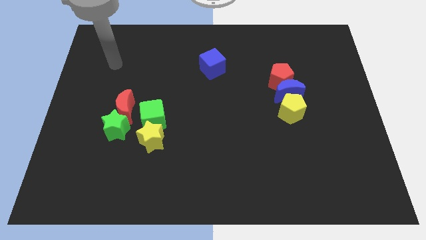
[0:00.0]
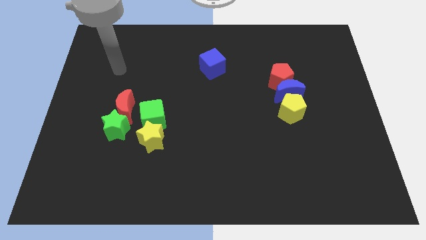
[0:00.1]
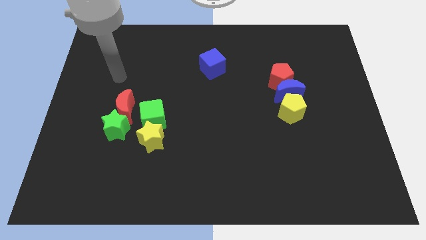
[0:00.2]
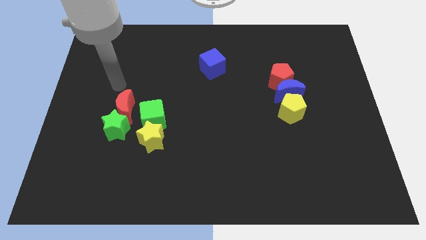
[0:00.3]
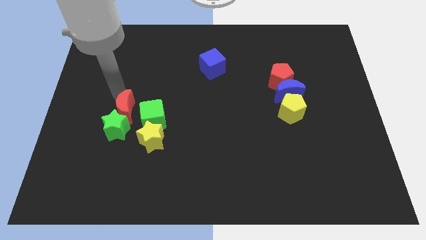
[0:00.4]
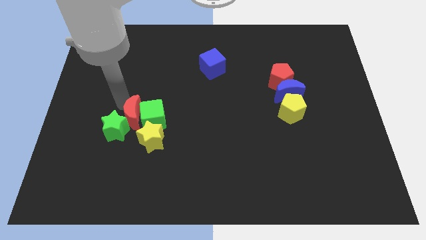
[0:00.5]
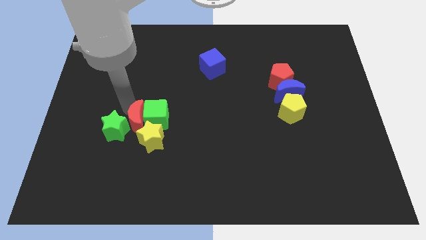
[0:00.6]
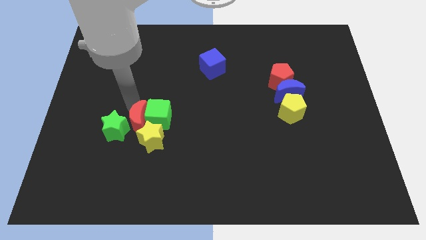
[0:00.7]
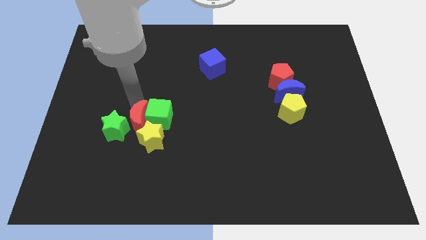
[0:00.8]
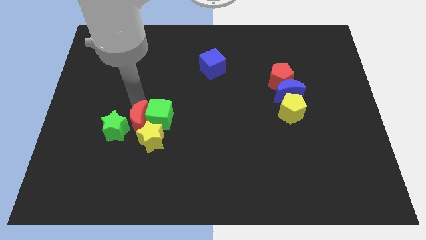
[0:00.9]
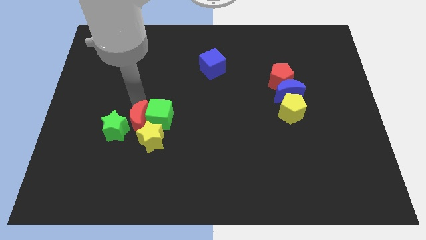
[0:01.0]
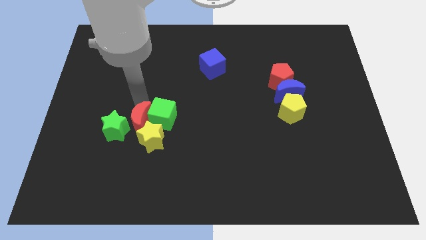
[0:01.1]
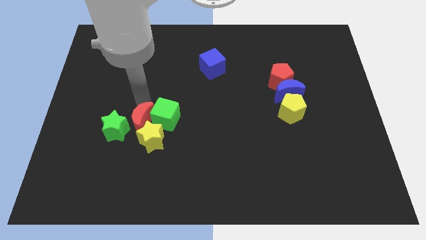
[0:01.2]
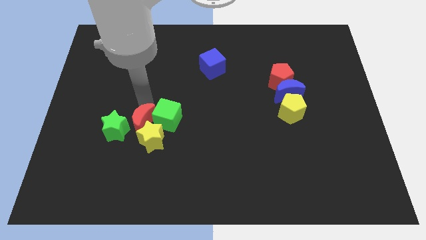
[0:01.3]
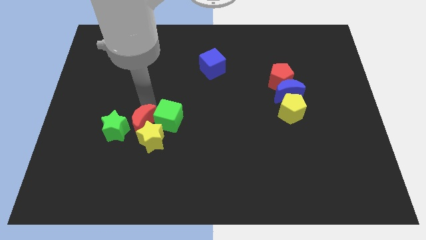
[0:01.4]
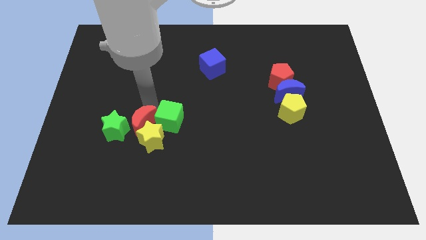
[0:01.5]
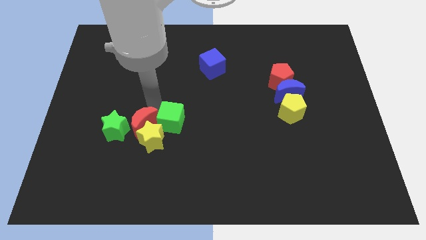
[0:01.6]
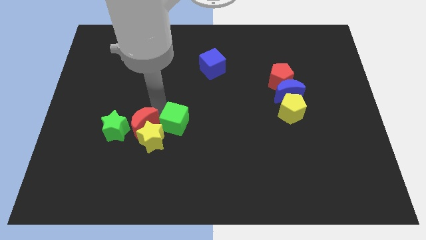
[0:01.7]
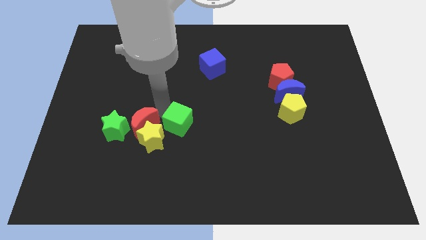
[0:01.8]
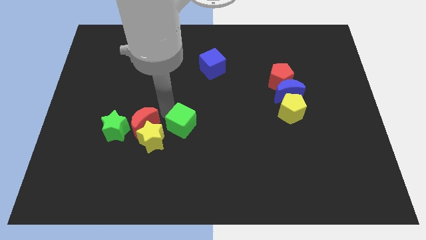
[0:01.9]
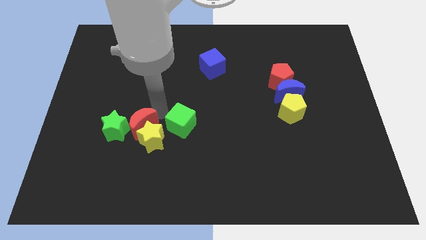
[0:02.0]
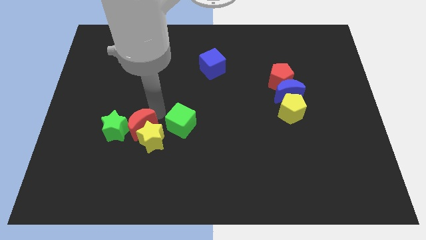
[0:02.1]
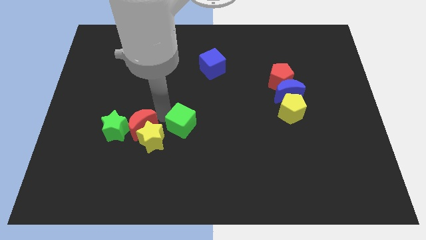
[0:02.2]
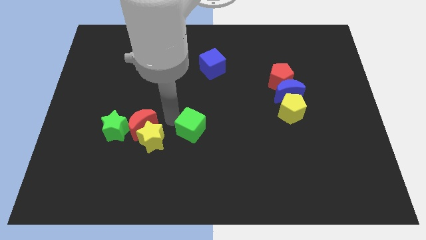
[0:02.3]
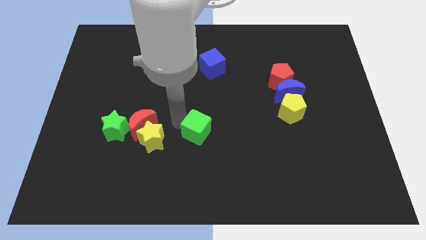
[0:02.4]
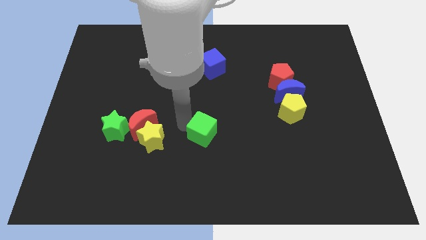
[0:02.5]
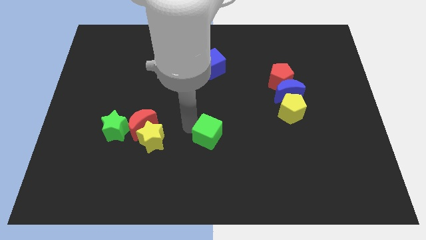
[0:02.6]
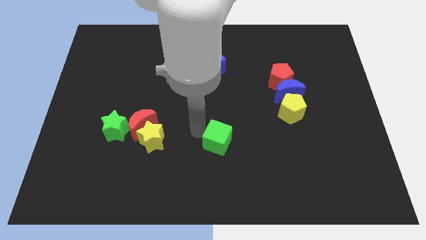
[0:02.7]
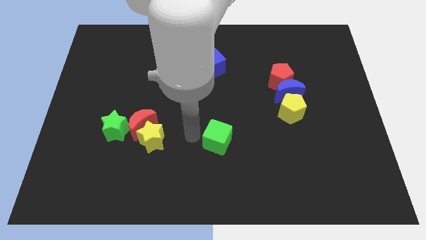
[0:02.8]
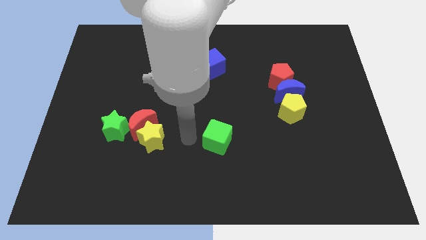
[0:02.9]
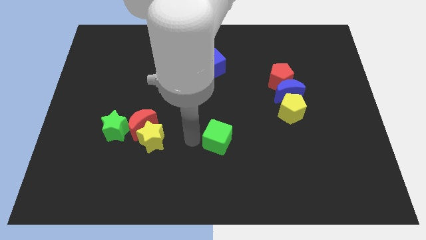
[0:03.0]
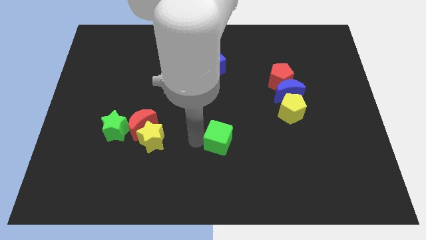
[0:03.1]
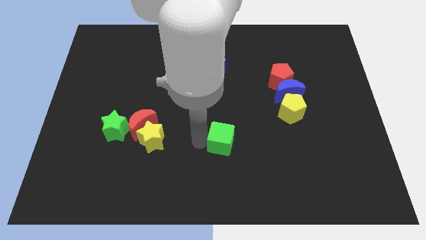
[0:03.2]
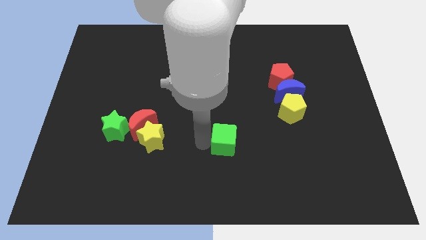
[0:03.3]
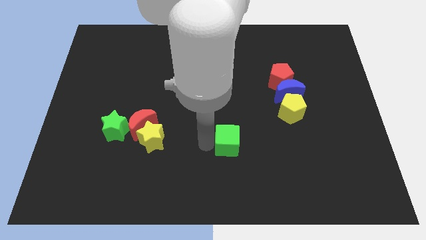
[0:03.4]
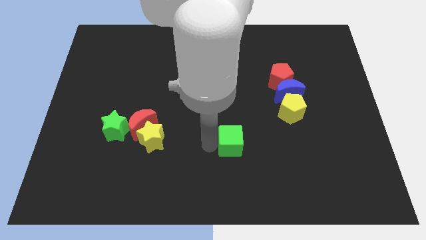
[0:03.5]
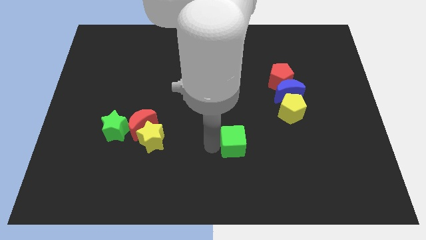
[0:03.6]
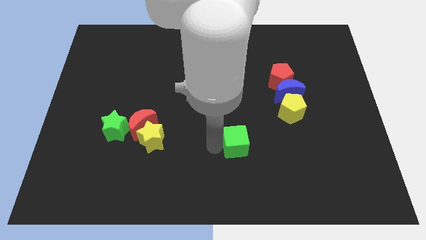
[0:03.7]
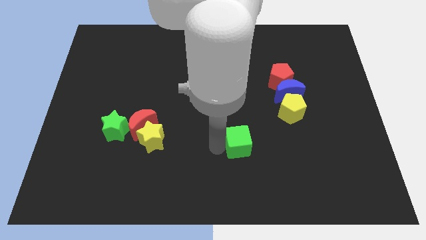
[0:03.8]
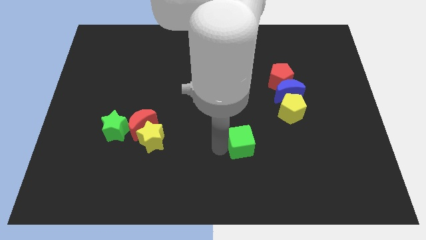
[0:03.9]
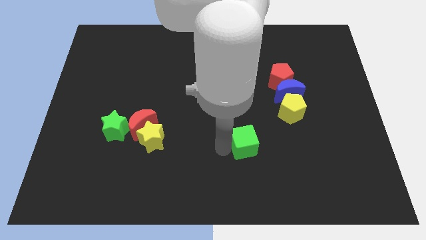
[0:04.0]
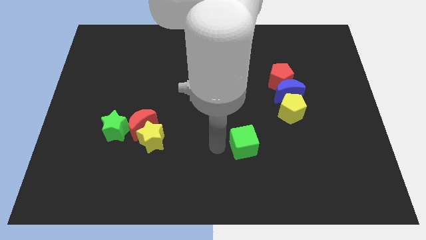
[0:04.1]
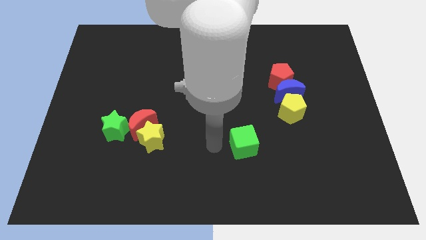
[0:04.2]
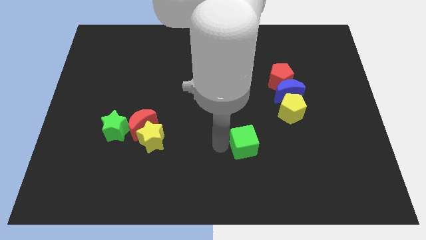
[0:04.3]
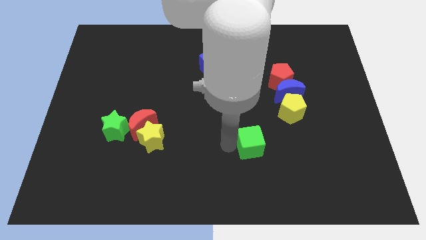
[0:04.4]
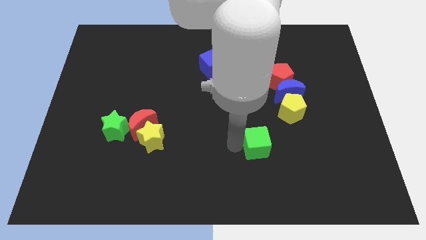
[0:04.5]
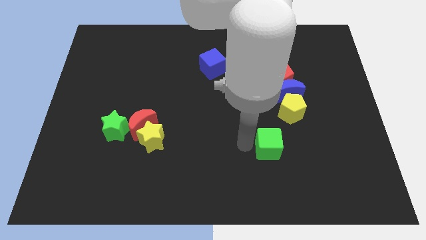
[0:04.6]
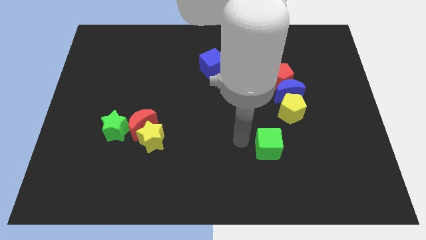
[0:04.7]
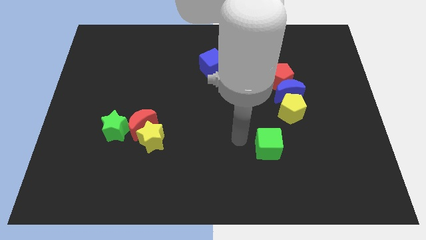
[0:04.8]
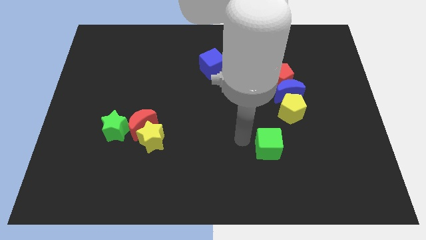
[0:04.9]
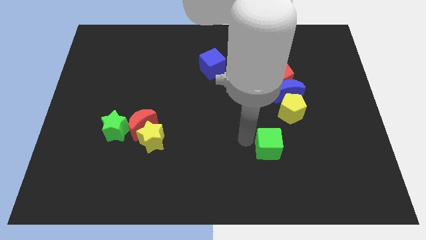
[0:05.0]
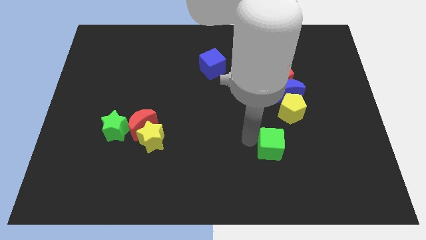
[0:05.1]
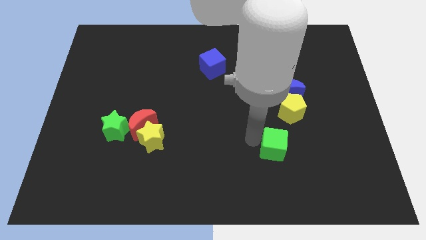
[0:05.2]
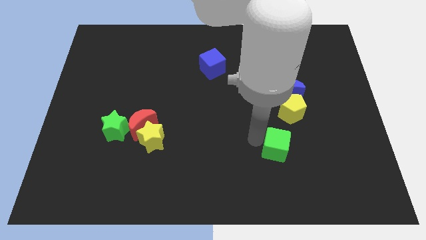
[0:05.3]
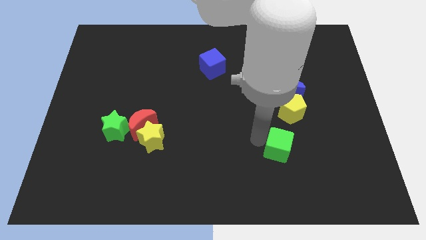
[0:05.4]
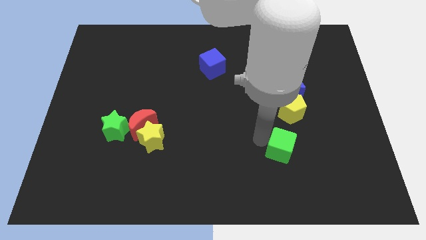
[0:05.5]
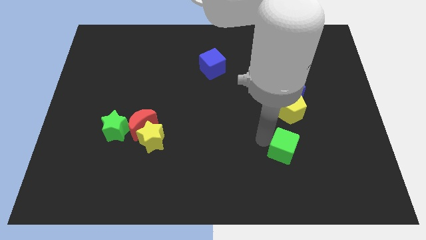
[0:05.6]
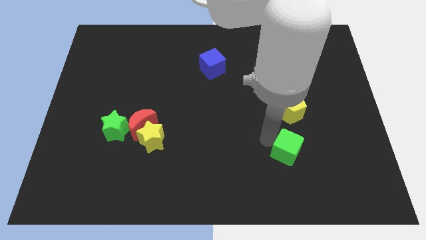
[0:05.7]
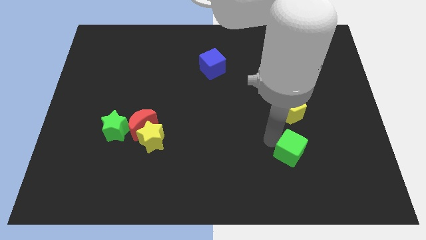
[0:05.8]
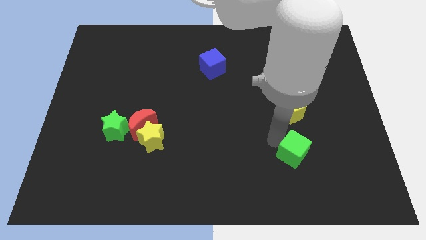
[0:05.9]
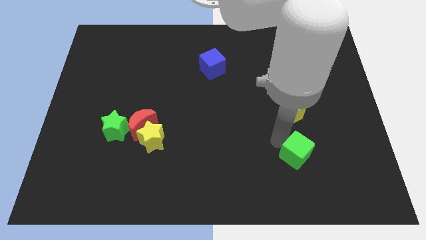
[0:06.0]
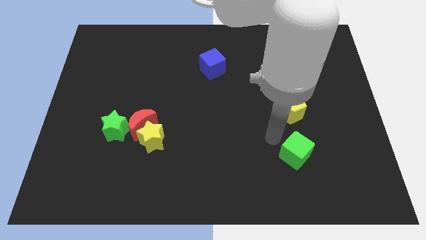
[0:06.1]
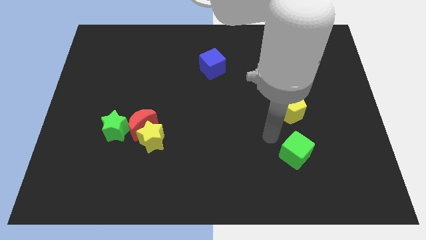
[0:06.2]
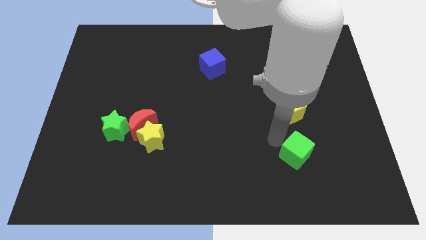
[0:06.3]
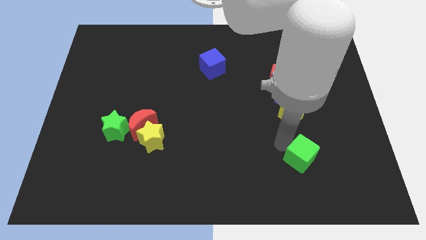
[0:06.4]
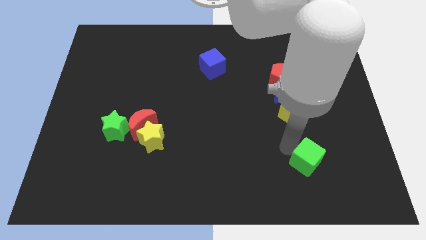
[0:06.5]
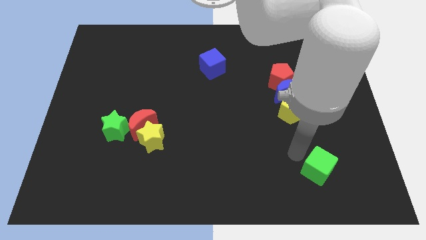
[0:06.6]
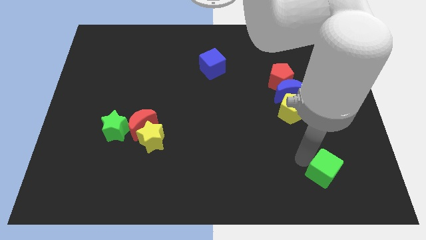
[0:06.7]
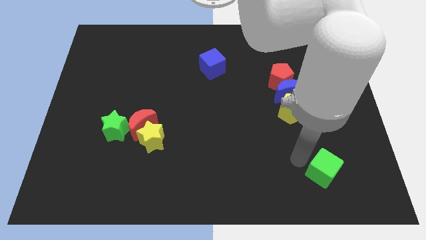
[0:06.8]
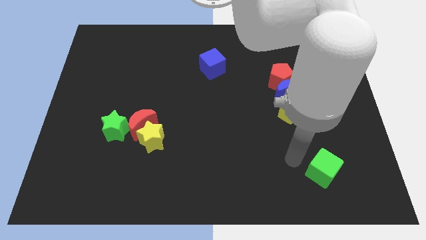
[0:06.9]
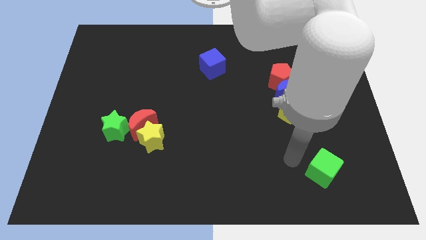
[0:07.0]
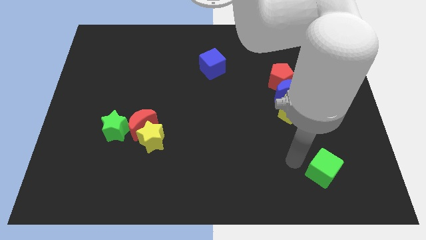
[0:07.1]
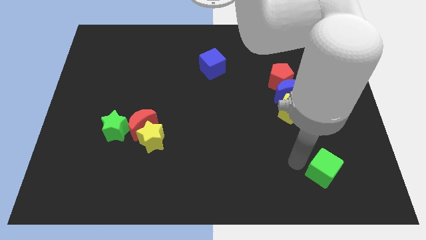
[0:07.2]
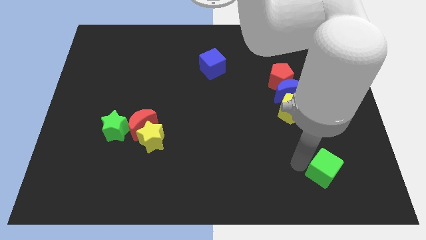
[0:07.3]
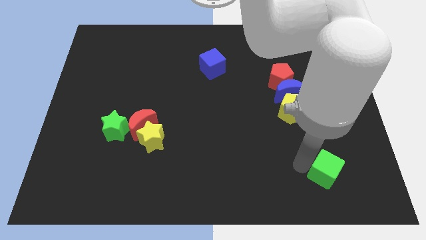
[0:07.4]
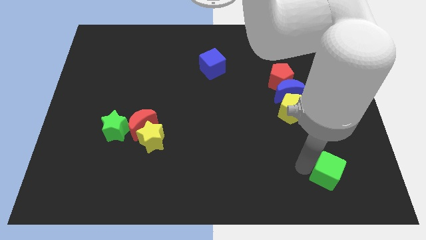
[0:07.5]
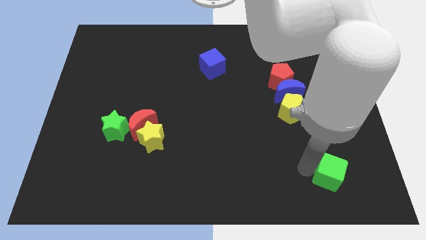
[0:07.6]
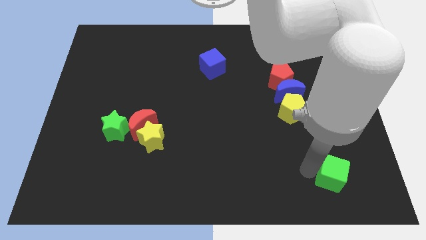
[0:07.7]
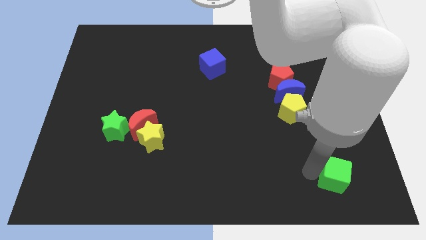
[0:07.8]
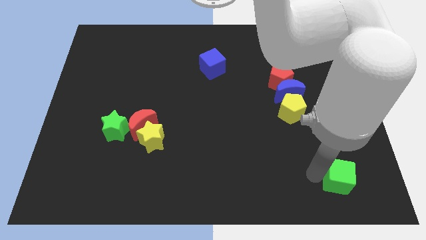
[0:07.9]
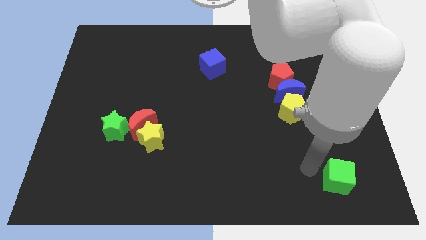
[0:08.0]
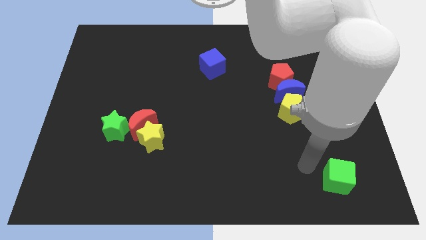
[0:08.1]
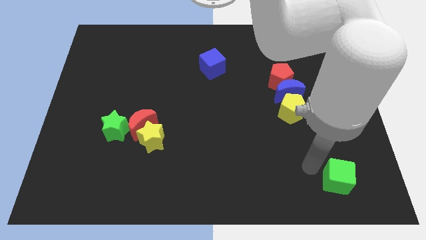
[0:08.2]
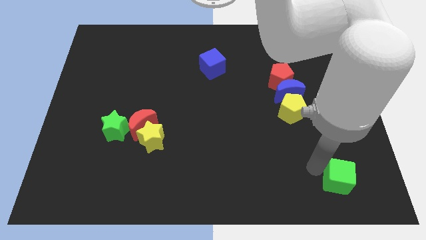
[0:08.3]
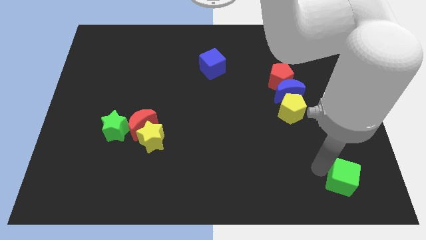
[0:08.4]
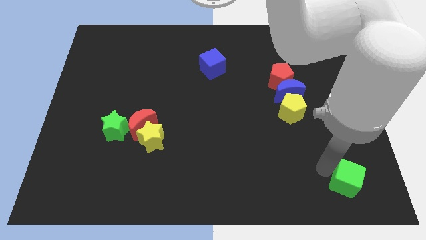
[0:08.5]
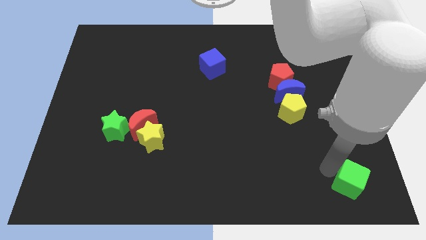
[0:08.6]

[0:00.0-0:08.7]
slide the green cube to the bottom right of the board
